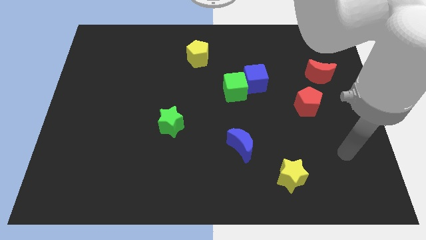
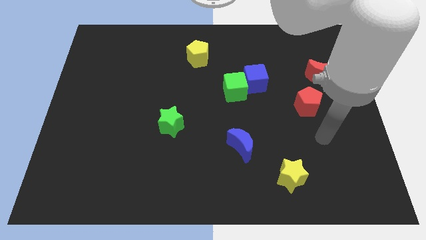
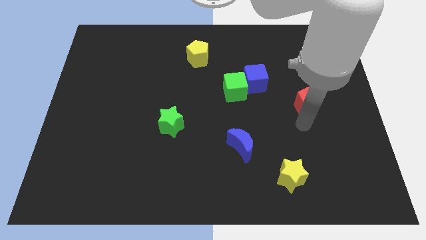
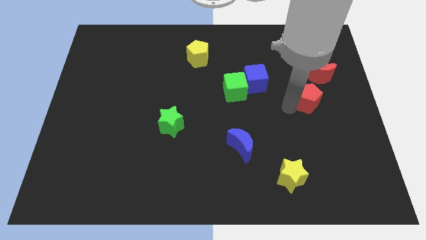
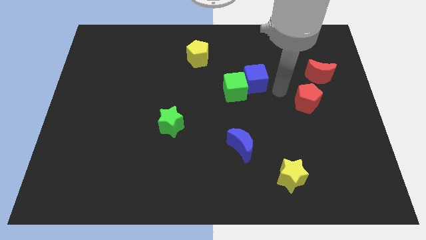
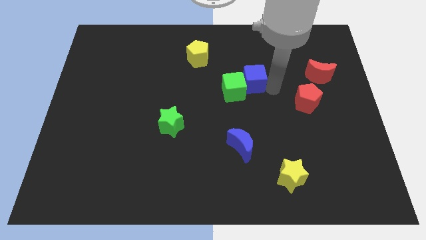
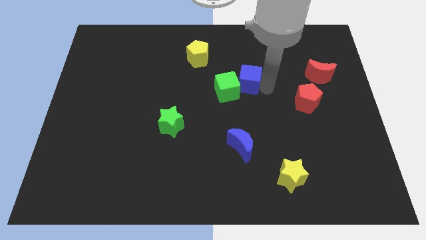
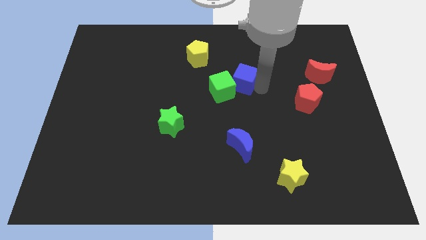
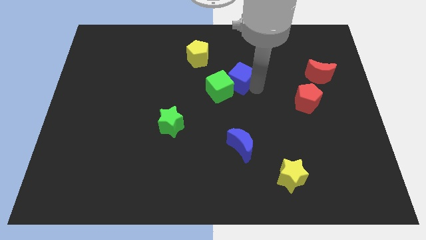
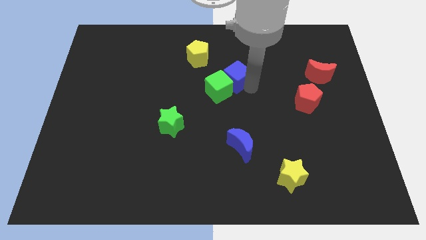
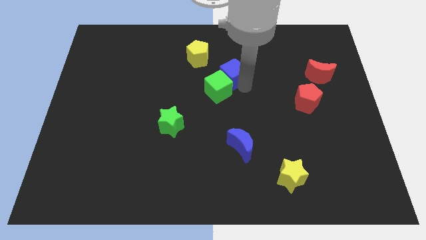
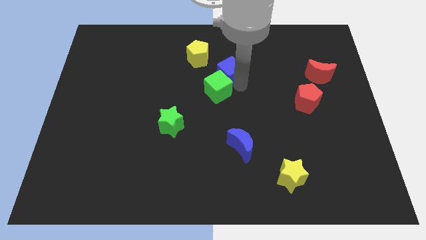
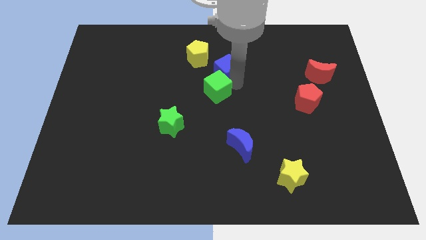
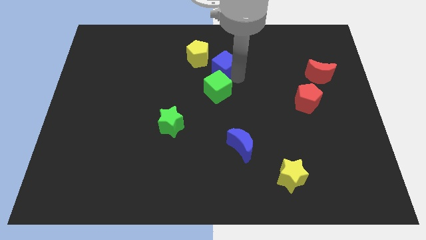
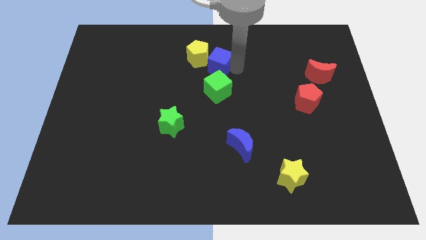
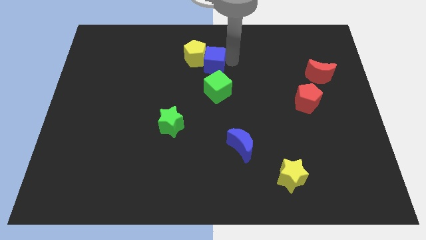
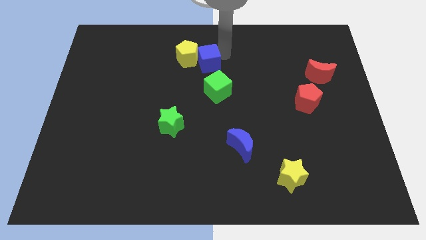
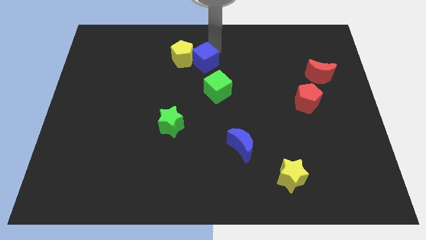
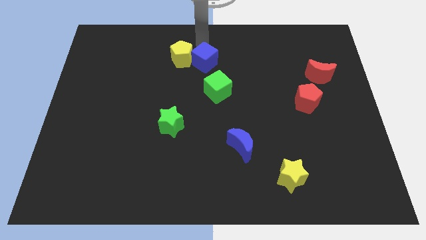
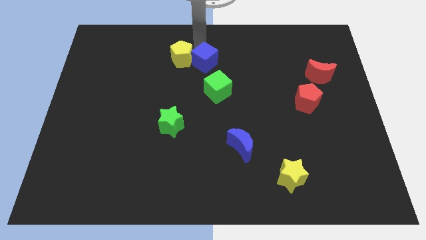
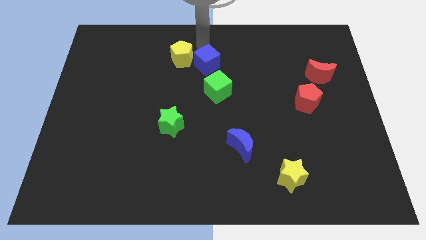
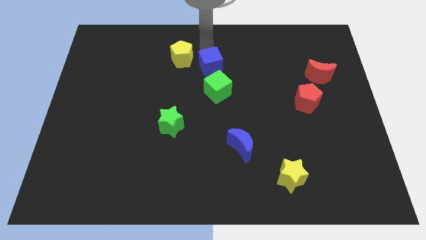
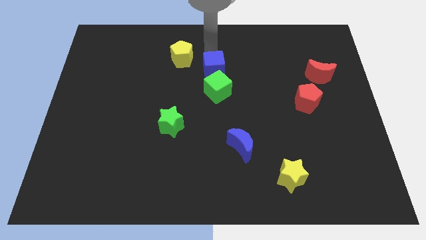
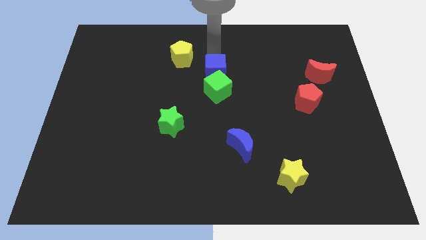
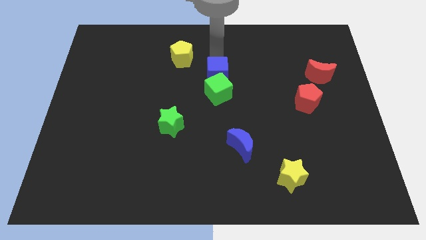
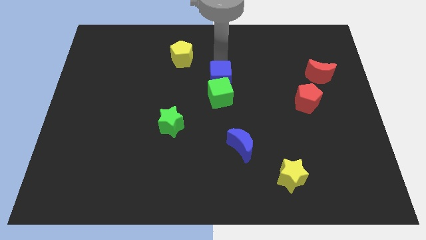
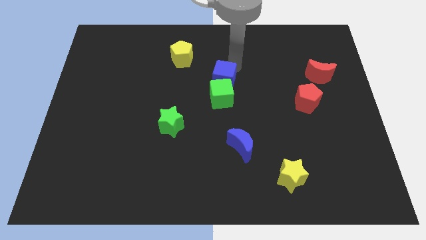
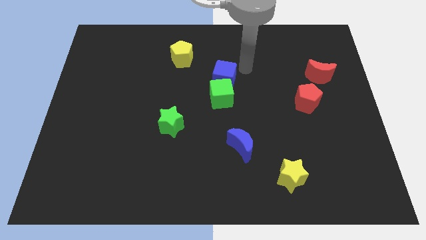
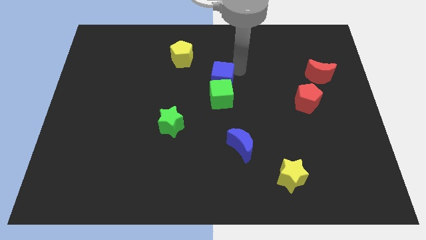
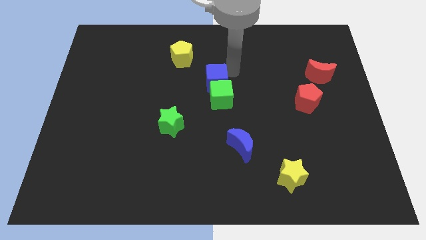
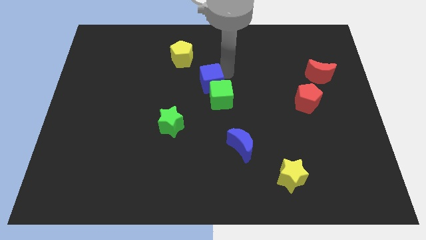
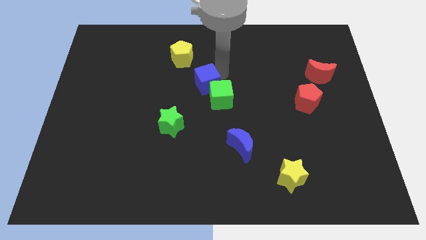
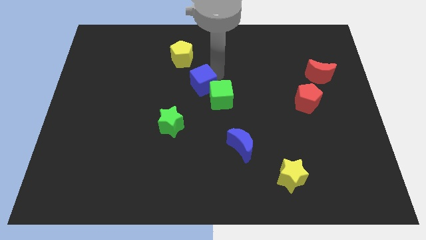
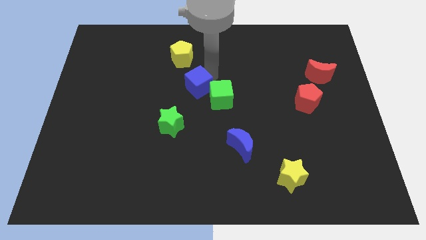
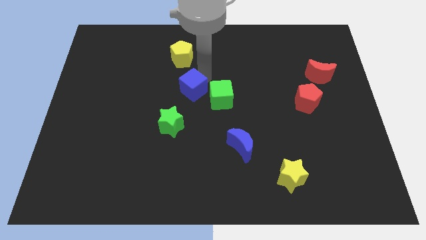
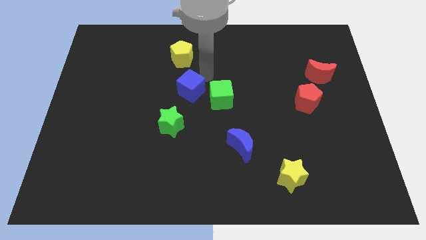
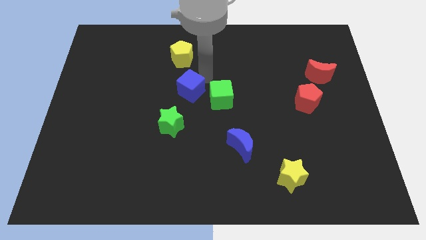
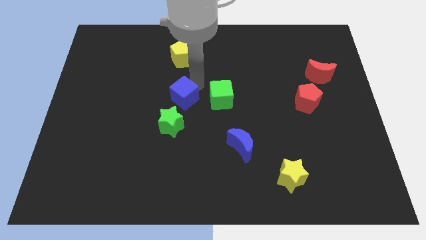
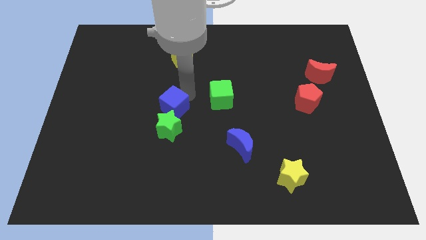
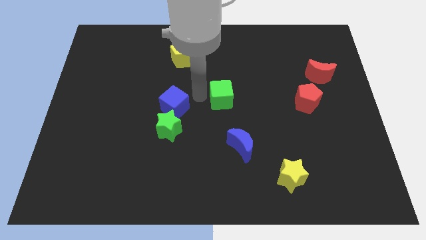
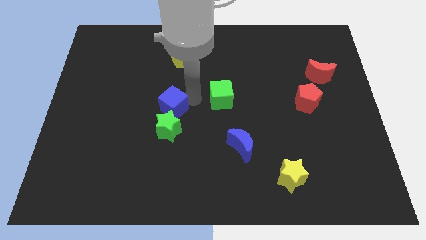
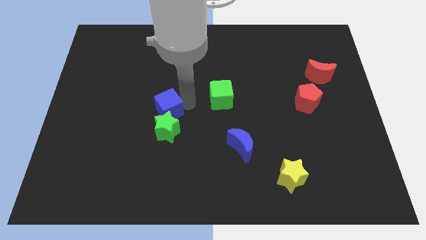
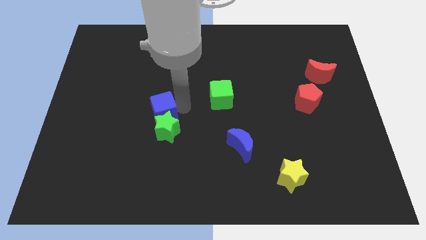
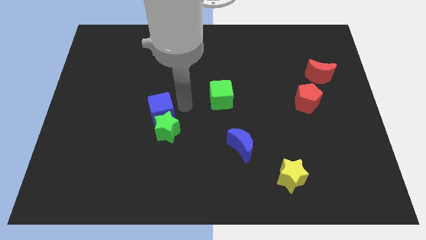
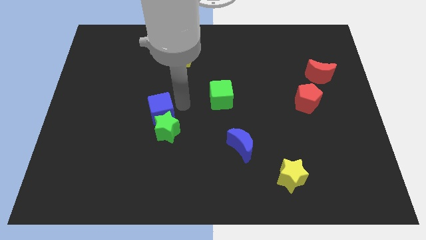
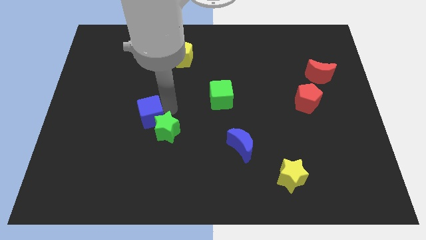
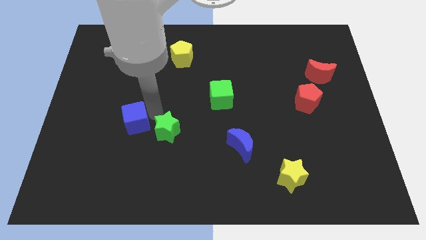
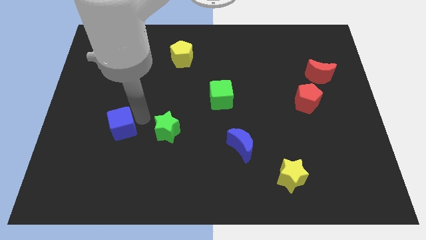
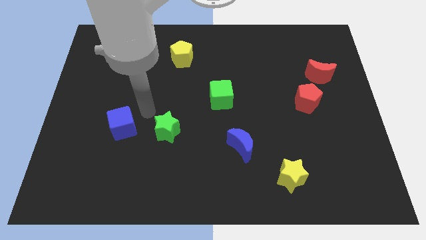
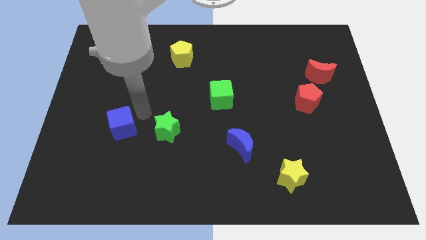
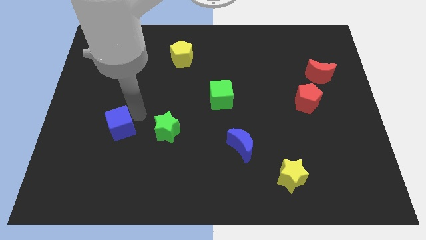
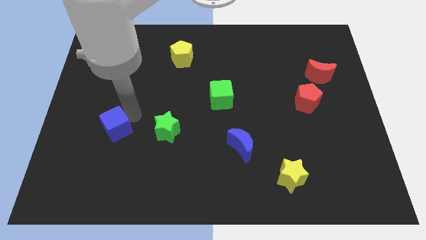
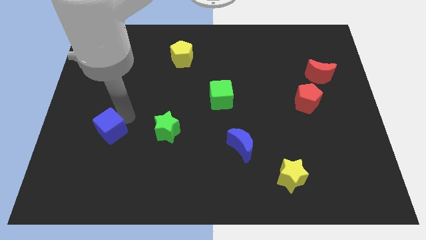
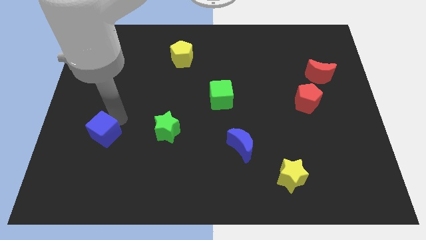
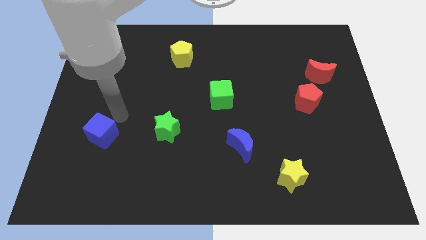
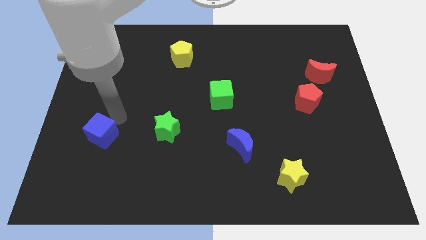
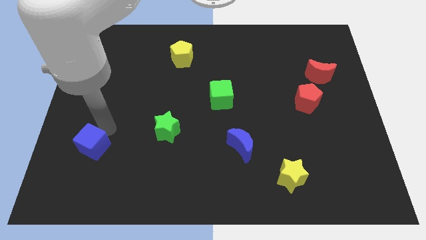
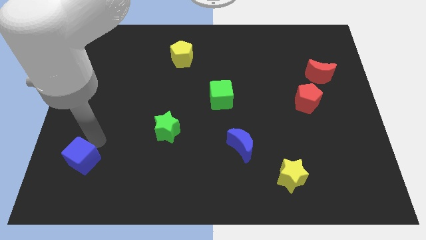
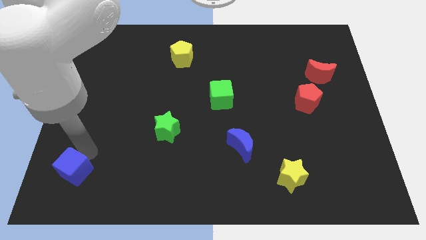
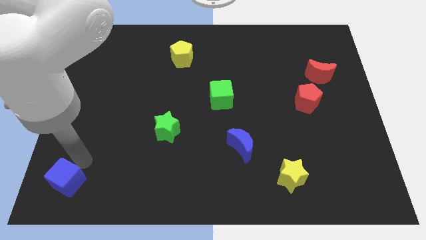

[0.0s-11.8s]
put the blue cube to the bottom left corner
